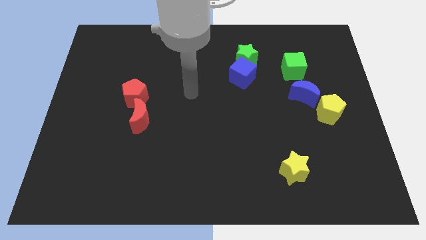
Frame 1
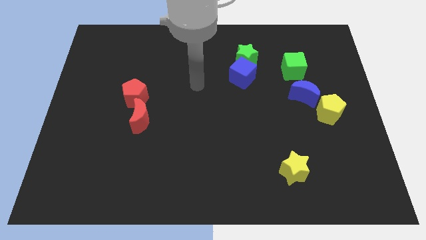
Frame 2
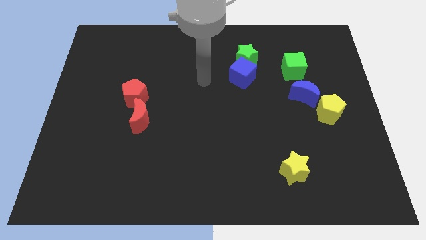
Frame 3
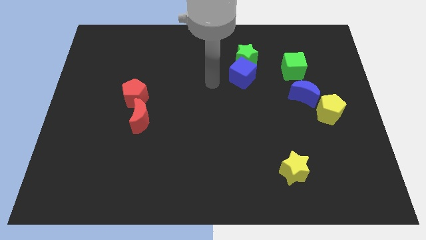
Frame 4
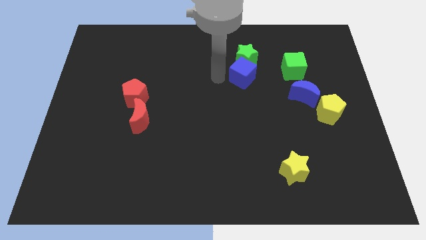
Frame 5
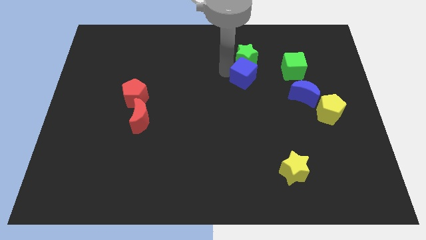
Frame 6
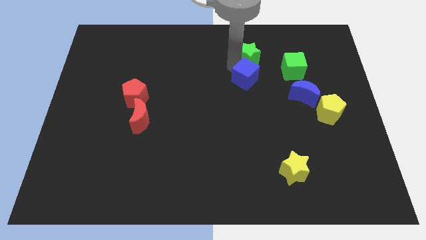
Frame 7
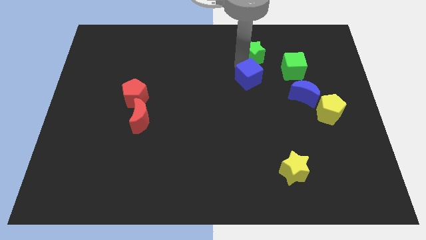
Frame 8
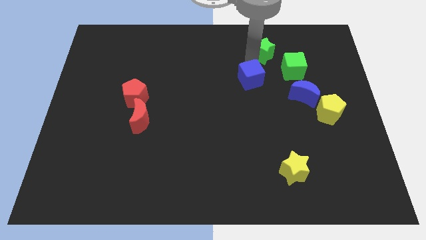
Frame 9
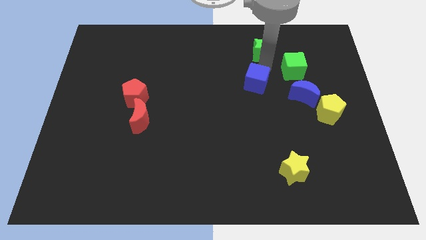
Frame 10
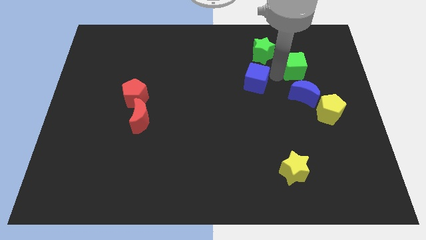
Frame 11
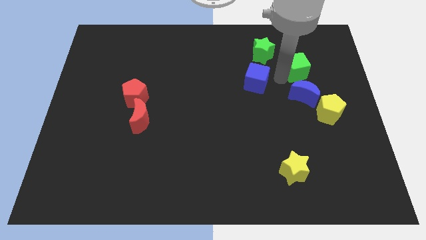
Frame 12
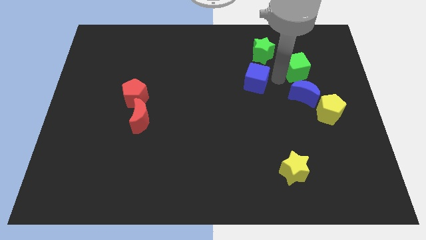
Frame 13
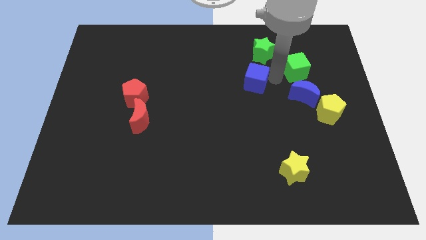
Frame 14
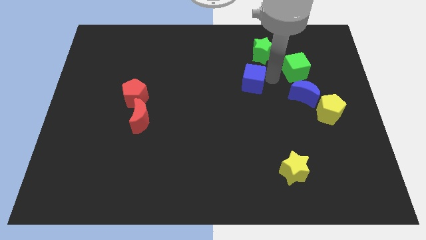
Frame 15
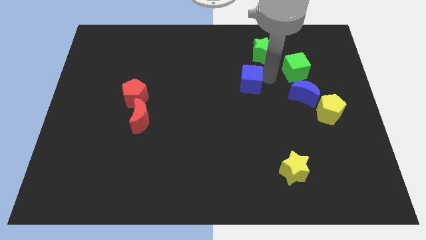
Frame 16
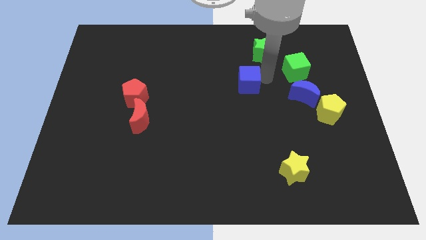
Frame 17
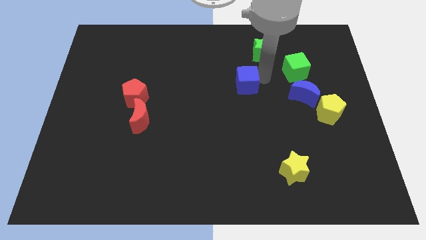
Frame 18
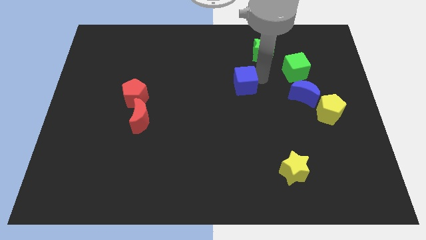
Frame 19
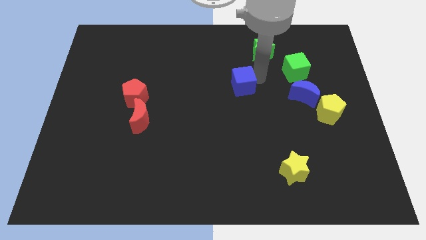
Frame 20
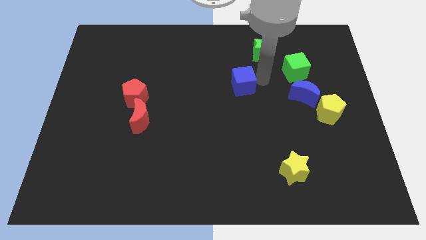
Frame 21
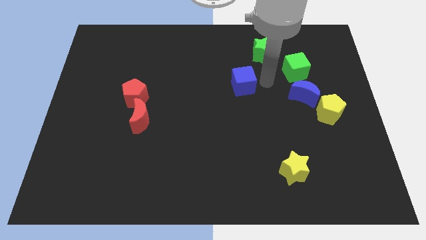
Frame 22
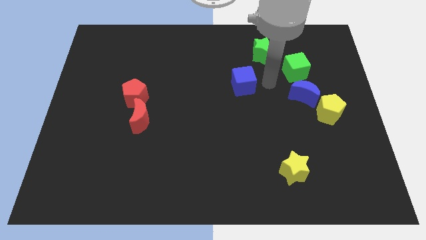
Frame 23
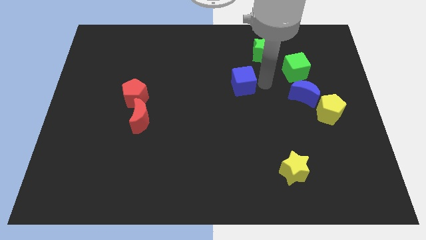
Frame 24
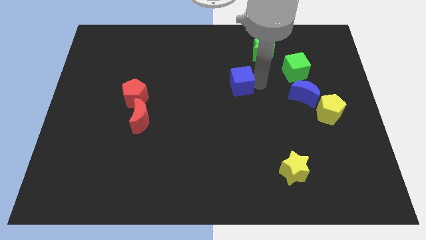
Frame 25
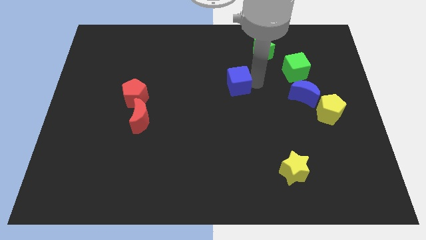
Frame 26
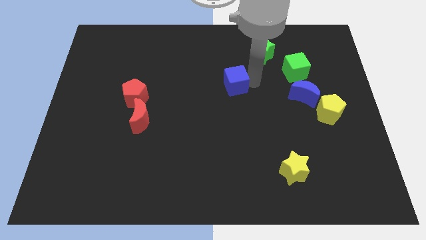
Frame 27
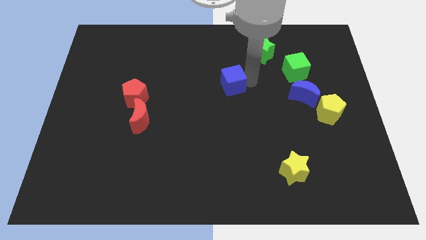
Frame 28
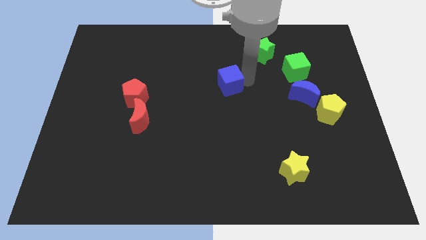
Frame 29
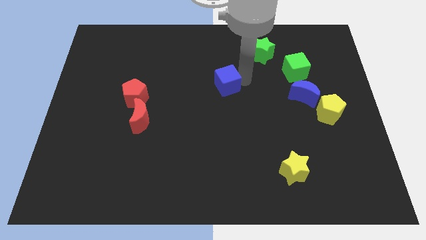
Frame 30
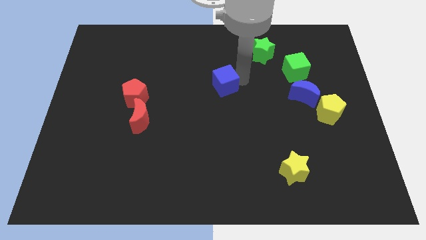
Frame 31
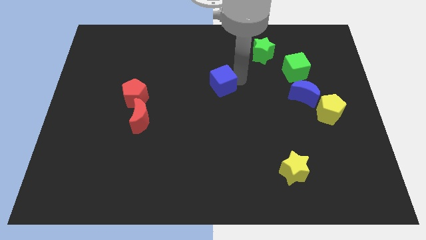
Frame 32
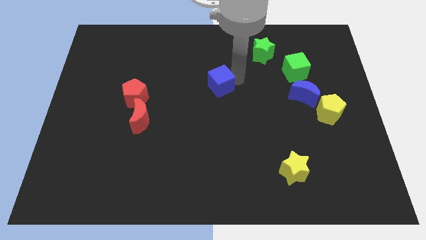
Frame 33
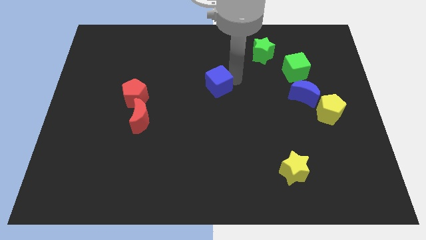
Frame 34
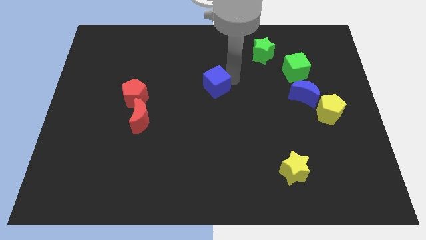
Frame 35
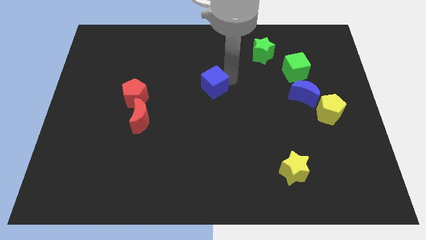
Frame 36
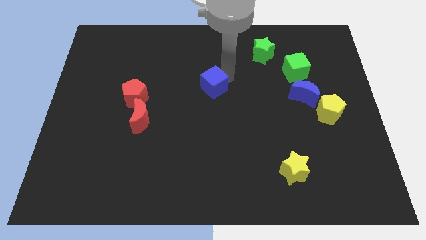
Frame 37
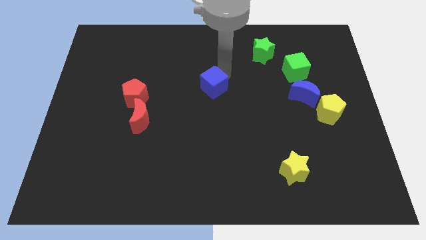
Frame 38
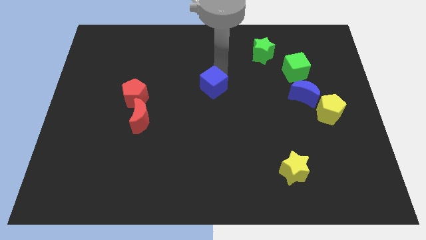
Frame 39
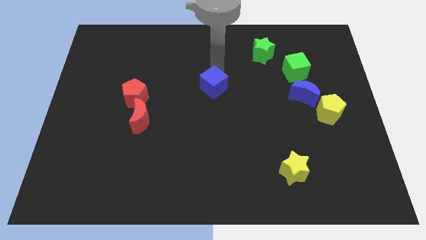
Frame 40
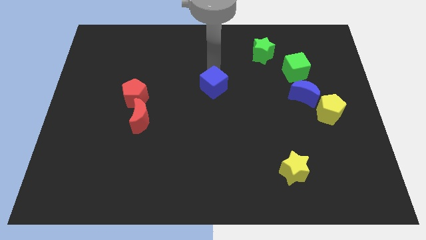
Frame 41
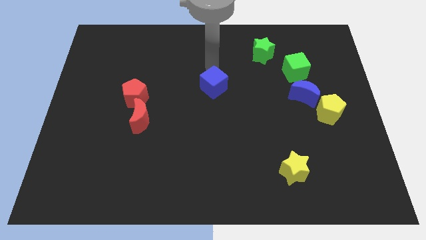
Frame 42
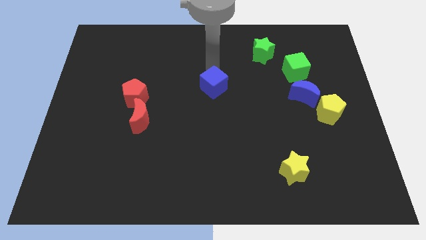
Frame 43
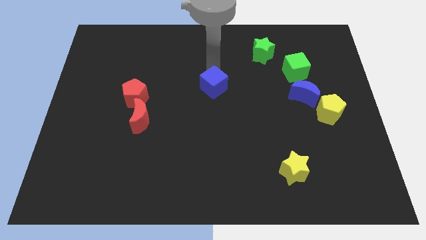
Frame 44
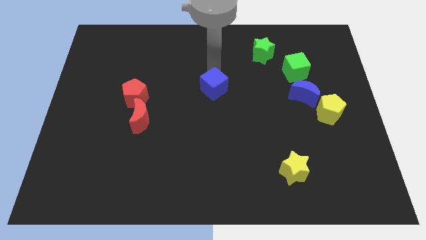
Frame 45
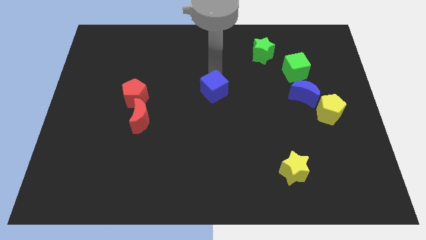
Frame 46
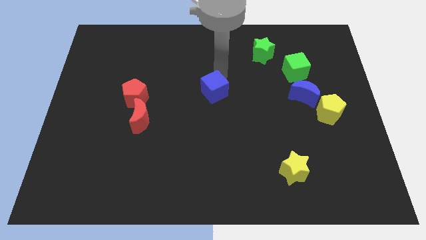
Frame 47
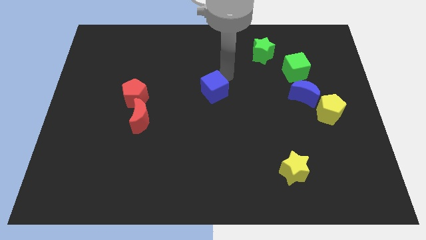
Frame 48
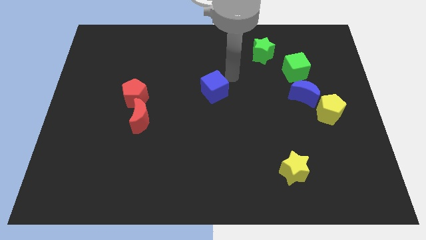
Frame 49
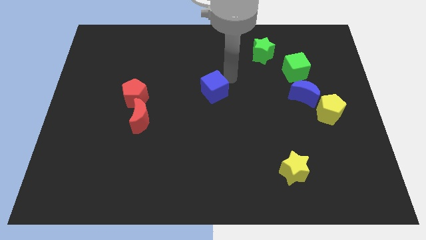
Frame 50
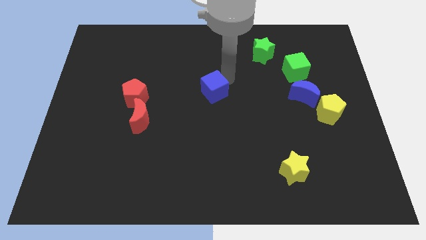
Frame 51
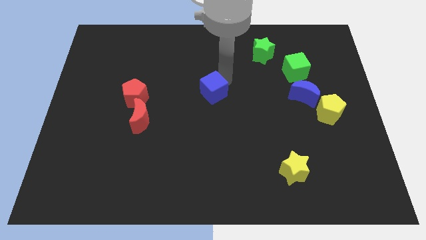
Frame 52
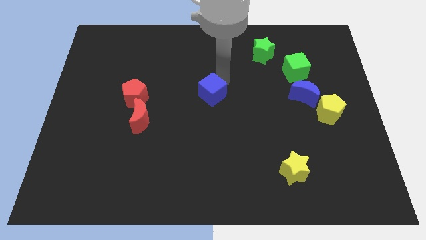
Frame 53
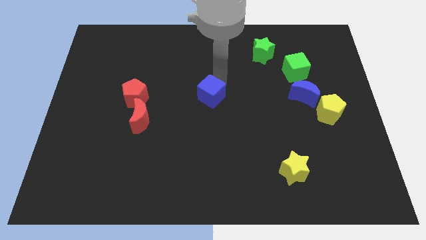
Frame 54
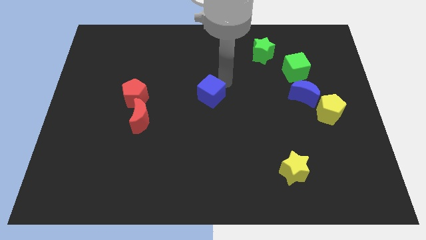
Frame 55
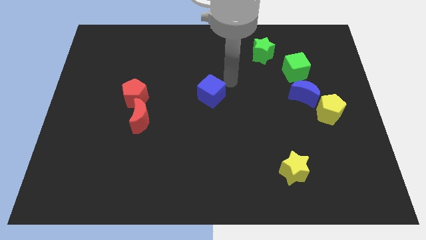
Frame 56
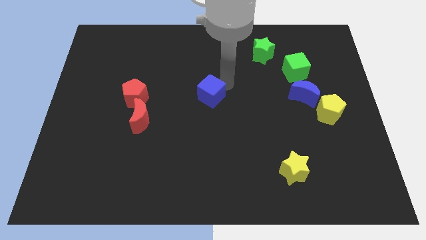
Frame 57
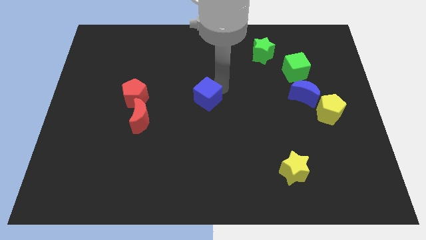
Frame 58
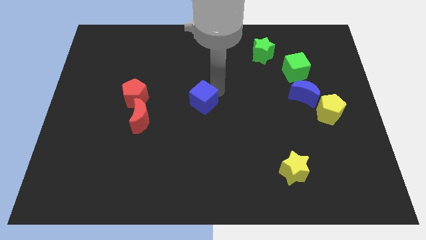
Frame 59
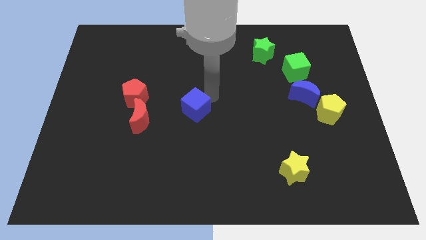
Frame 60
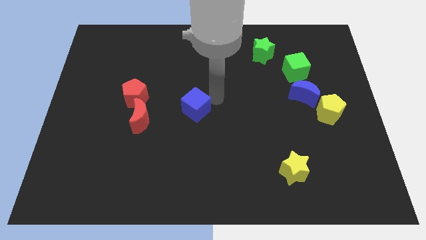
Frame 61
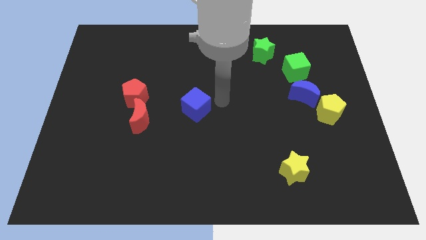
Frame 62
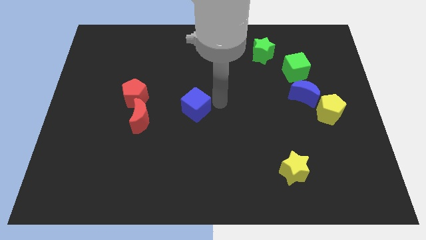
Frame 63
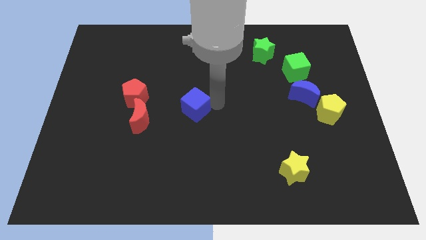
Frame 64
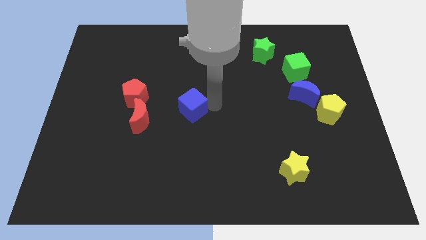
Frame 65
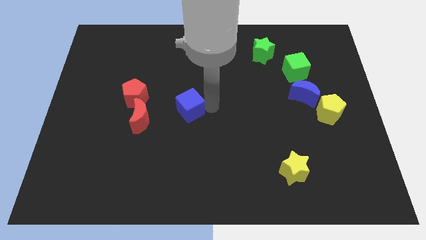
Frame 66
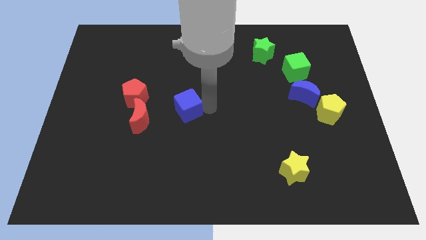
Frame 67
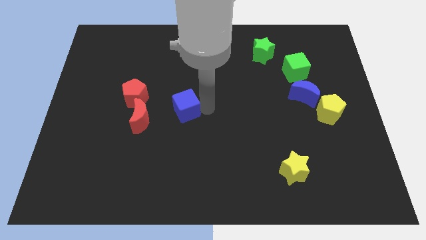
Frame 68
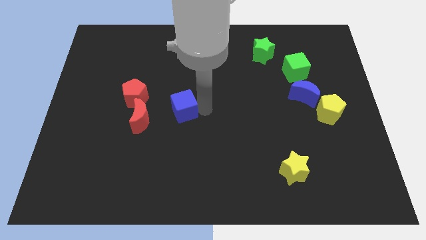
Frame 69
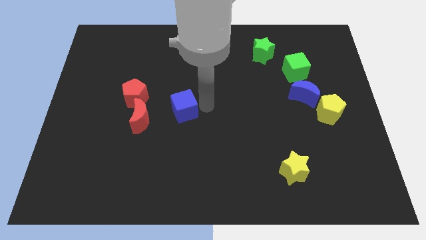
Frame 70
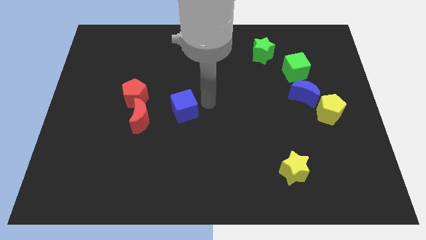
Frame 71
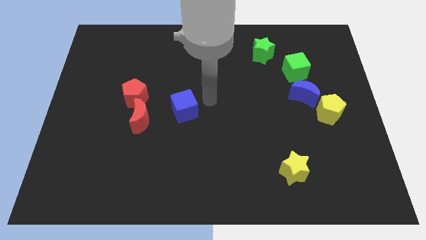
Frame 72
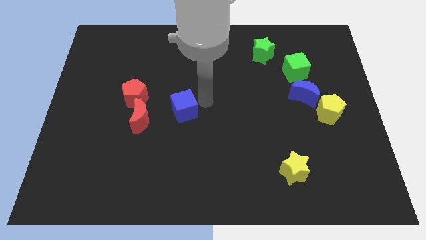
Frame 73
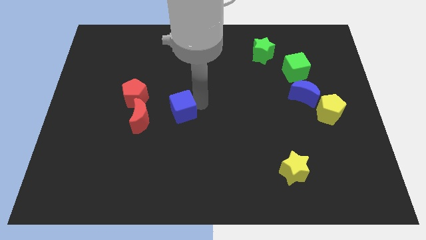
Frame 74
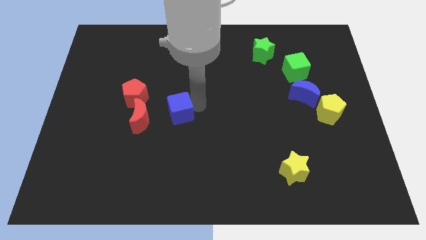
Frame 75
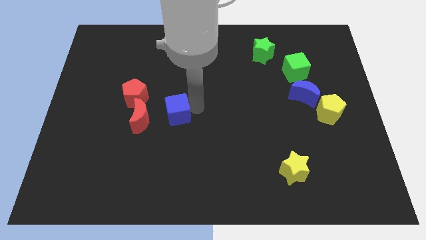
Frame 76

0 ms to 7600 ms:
slide the blue cube to the bottom right side of the red pentagon
